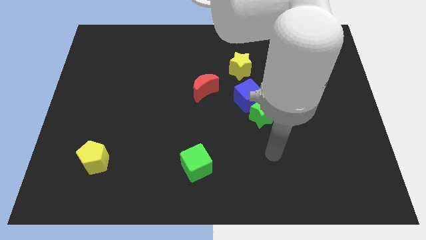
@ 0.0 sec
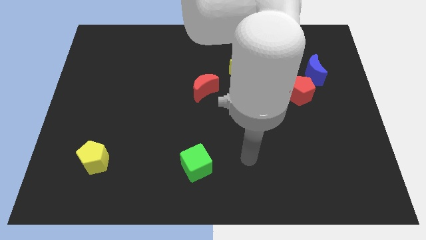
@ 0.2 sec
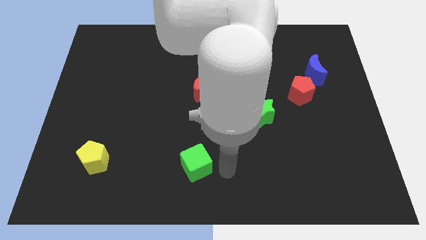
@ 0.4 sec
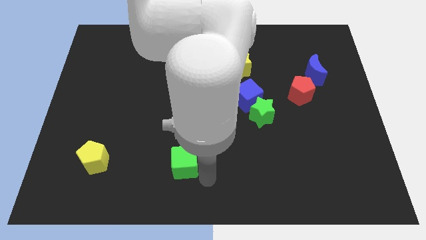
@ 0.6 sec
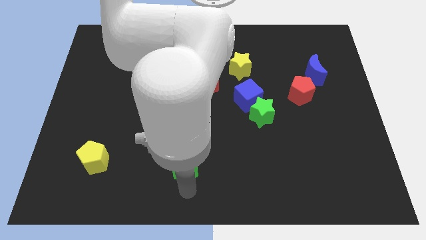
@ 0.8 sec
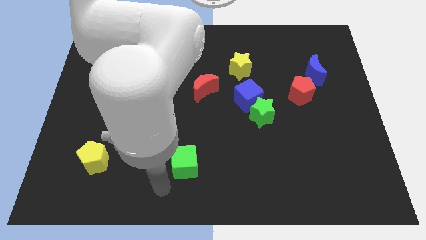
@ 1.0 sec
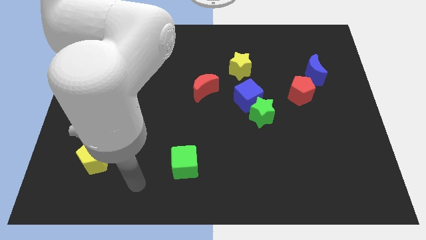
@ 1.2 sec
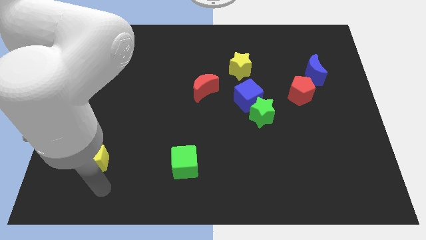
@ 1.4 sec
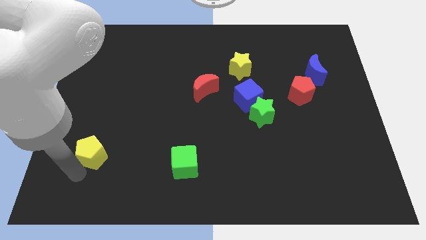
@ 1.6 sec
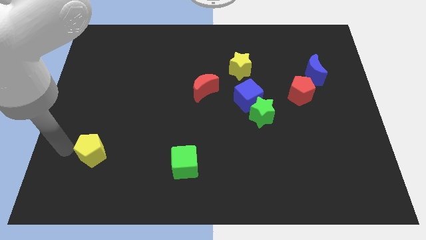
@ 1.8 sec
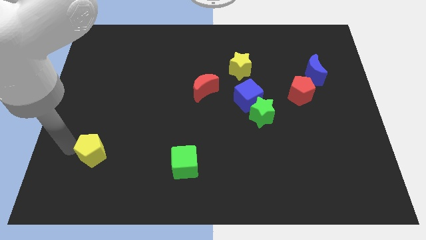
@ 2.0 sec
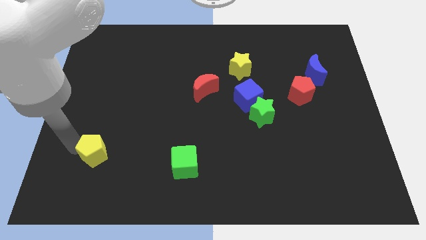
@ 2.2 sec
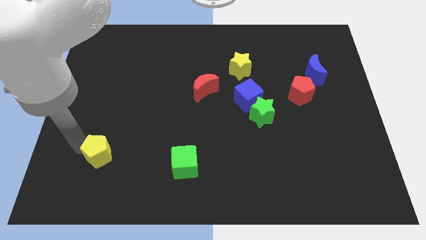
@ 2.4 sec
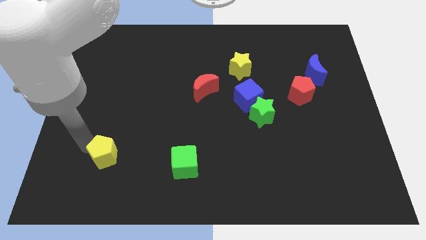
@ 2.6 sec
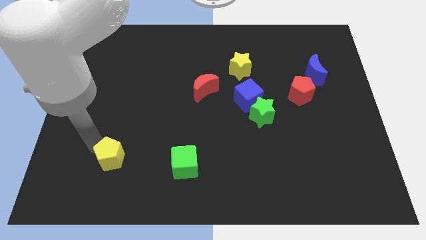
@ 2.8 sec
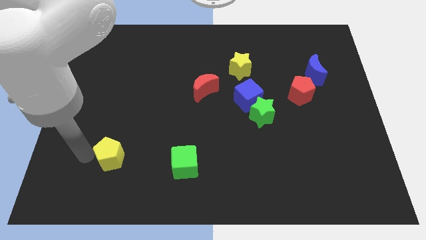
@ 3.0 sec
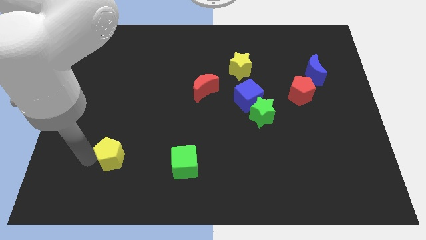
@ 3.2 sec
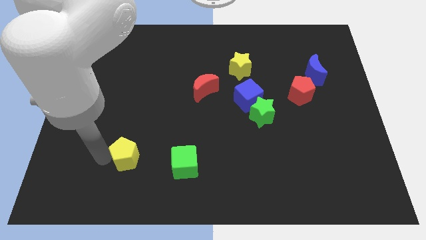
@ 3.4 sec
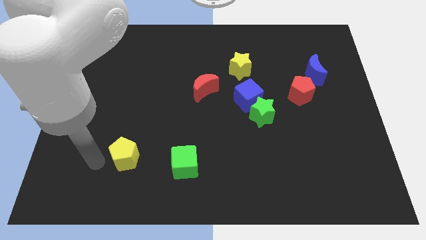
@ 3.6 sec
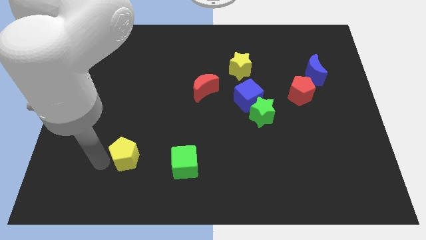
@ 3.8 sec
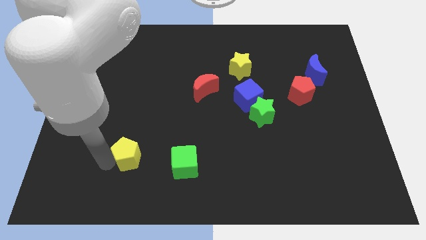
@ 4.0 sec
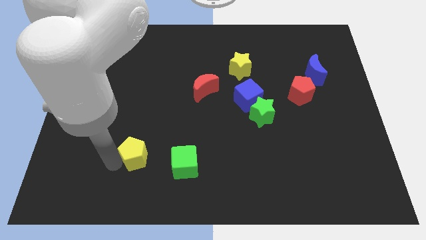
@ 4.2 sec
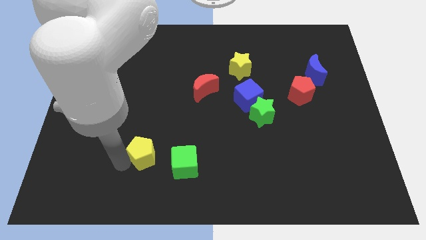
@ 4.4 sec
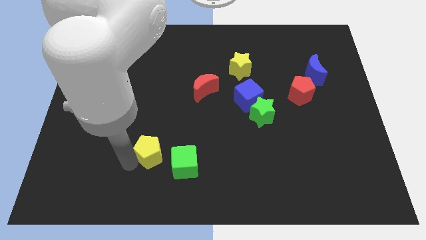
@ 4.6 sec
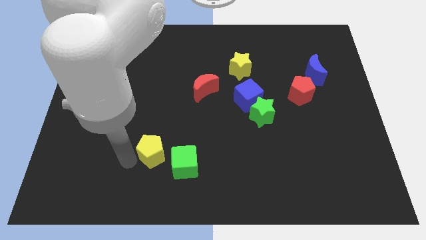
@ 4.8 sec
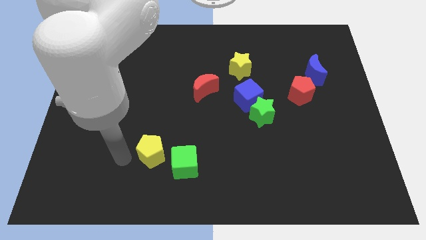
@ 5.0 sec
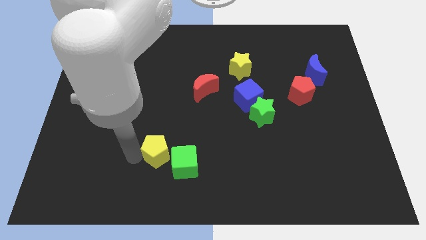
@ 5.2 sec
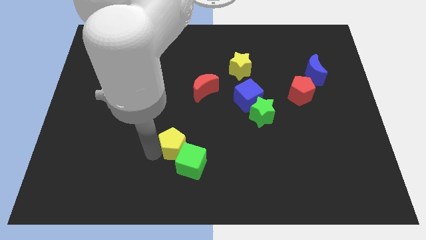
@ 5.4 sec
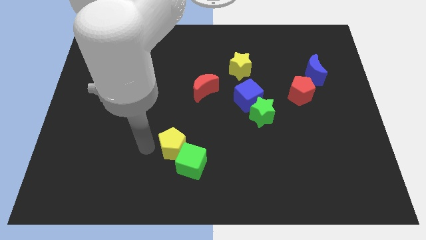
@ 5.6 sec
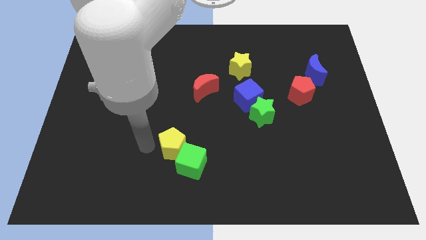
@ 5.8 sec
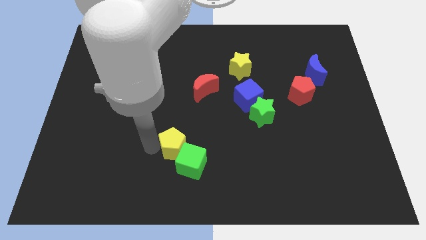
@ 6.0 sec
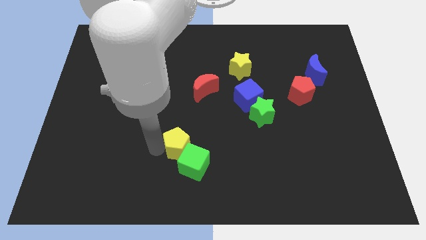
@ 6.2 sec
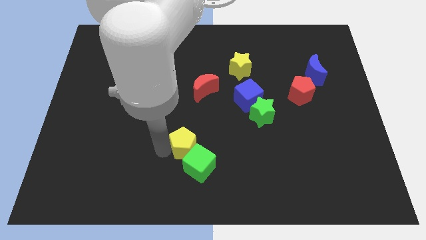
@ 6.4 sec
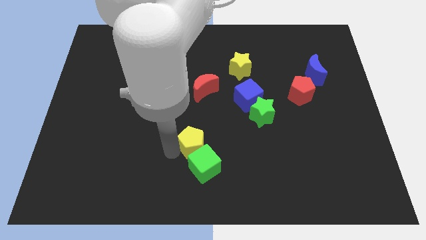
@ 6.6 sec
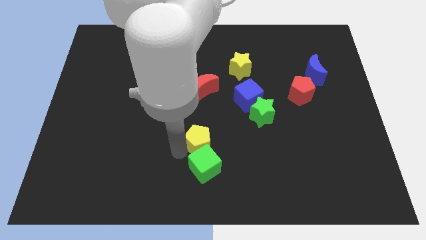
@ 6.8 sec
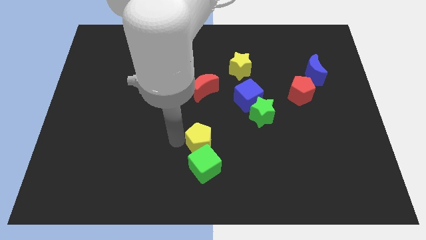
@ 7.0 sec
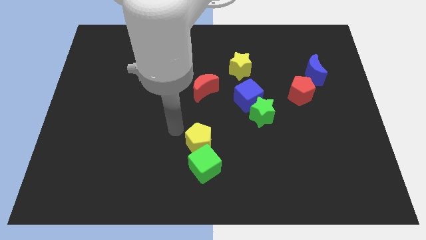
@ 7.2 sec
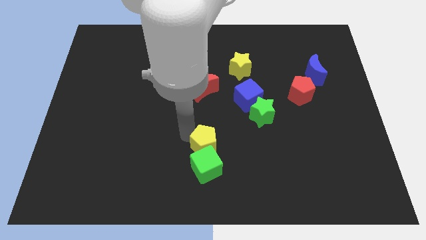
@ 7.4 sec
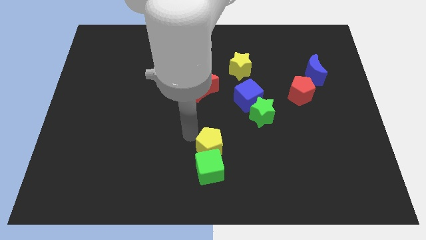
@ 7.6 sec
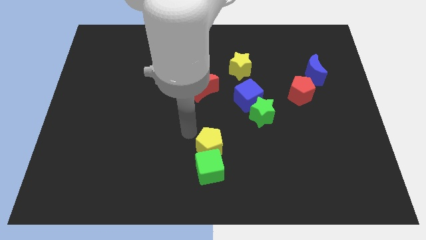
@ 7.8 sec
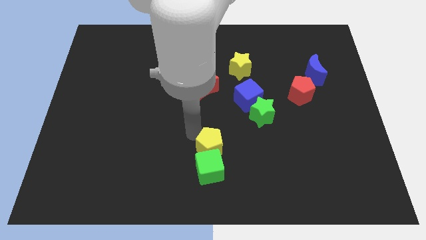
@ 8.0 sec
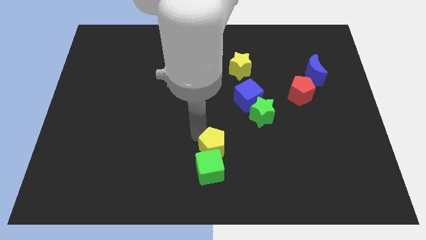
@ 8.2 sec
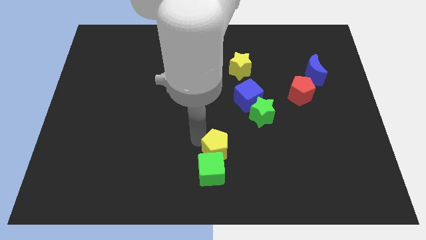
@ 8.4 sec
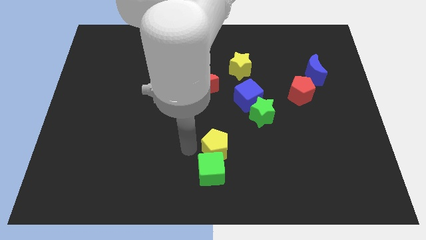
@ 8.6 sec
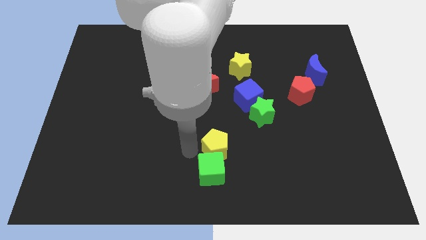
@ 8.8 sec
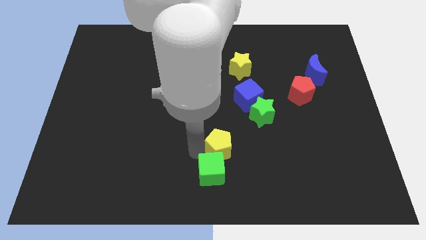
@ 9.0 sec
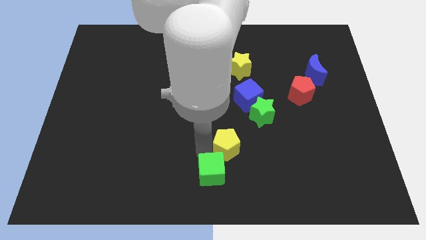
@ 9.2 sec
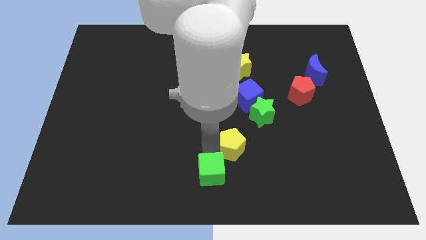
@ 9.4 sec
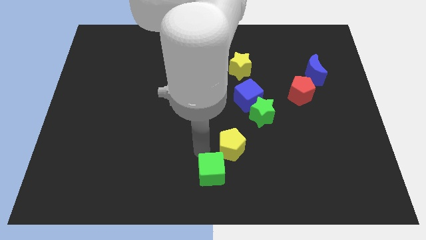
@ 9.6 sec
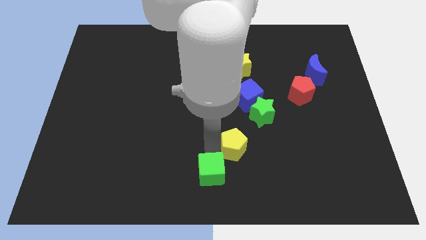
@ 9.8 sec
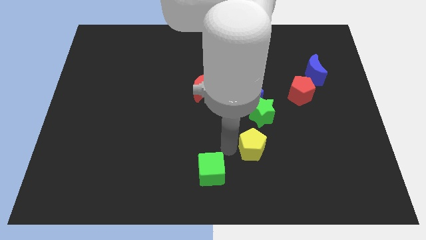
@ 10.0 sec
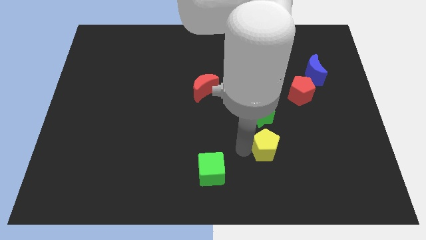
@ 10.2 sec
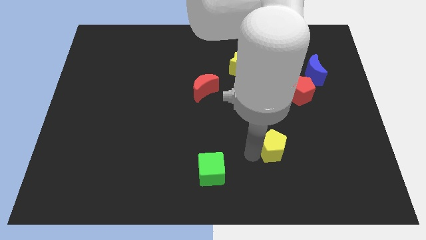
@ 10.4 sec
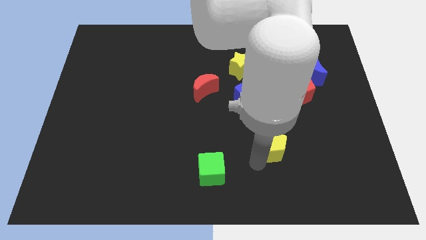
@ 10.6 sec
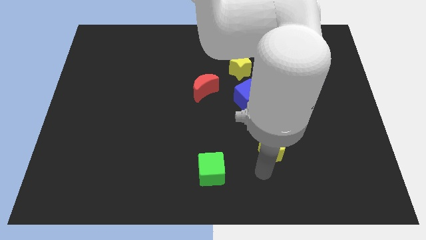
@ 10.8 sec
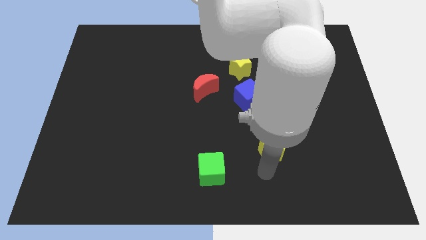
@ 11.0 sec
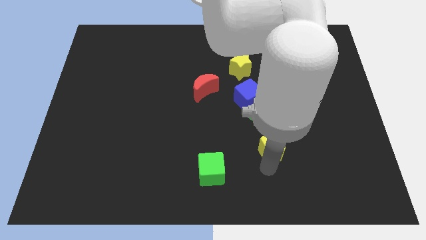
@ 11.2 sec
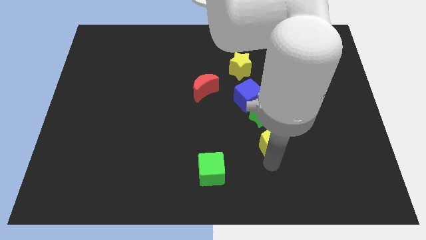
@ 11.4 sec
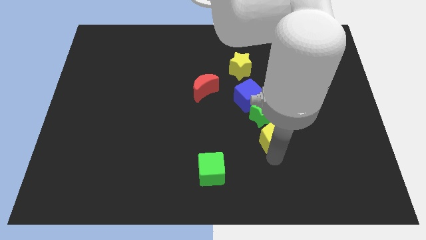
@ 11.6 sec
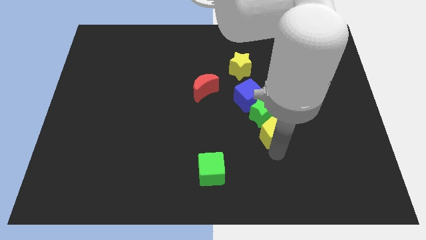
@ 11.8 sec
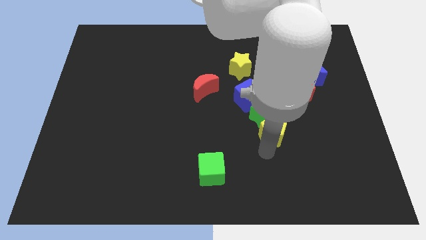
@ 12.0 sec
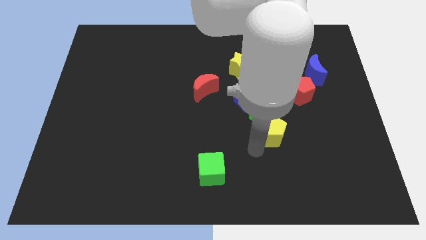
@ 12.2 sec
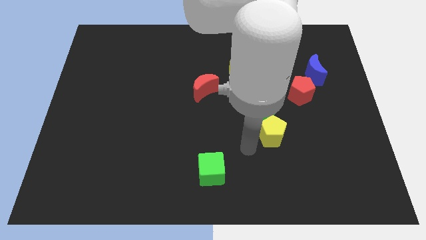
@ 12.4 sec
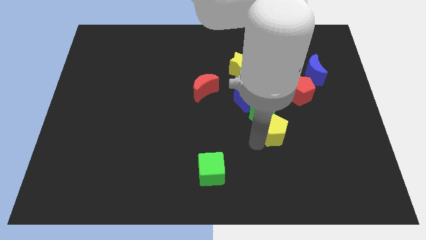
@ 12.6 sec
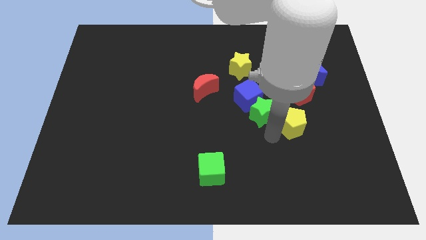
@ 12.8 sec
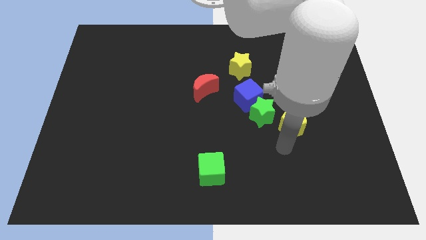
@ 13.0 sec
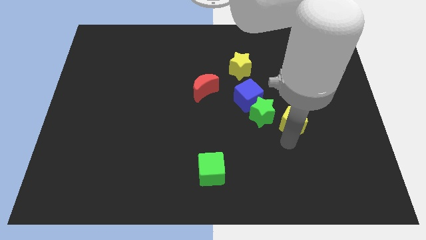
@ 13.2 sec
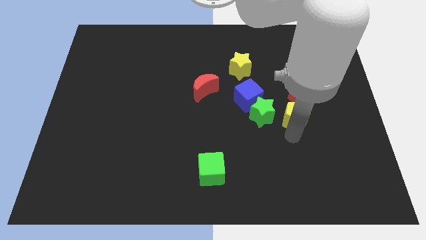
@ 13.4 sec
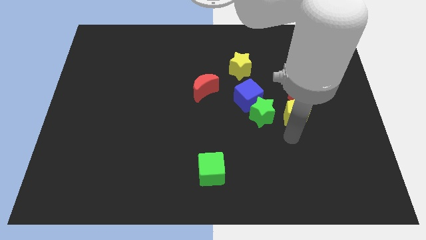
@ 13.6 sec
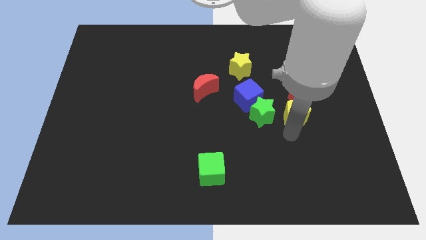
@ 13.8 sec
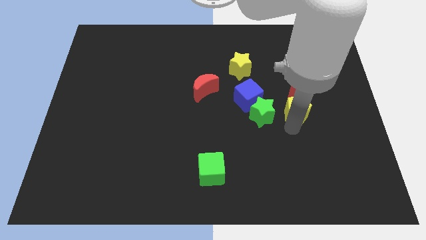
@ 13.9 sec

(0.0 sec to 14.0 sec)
slide the yellow pentagon next to the red pentagon

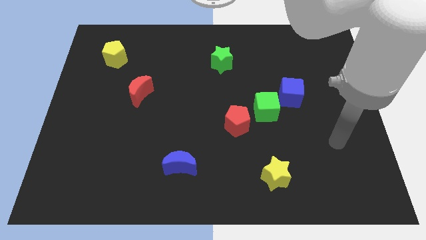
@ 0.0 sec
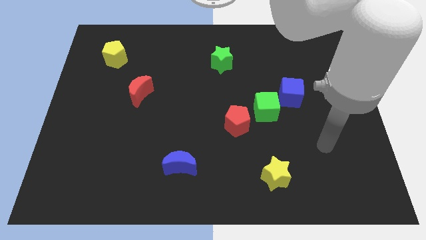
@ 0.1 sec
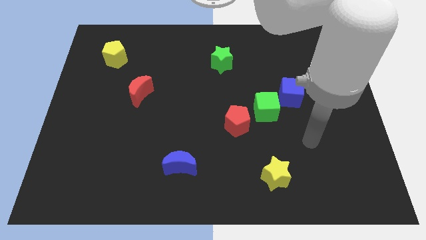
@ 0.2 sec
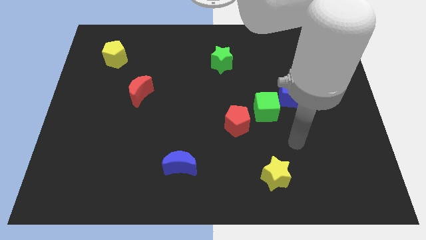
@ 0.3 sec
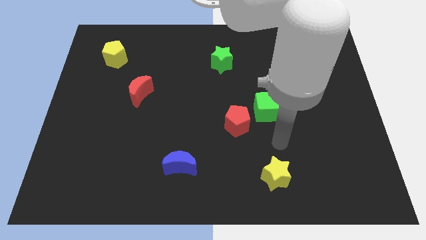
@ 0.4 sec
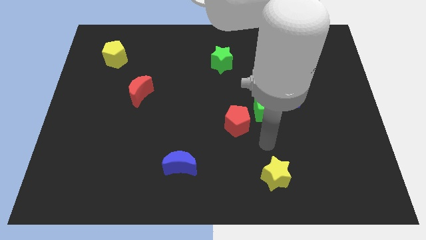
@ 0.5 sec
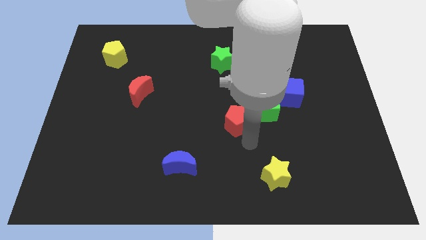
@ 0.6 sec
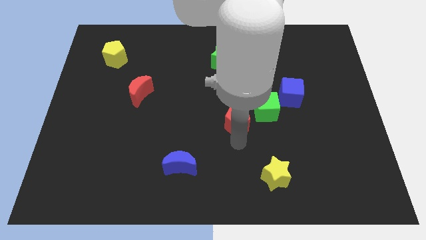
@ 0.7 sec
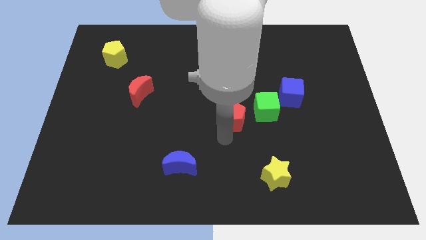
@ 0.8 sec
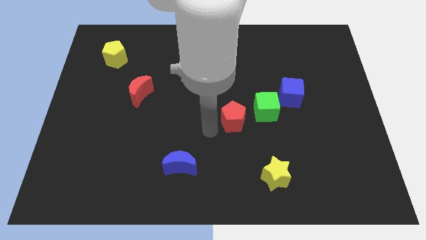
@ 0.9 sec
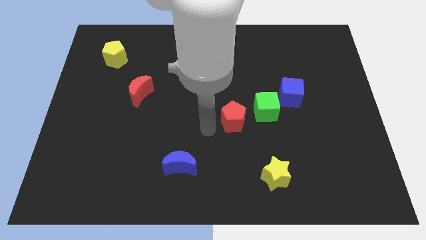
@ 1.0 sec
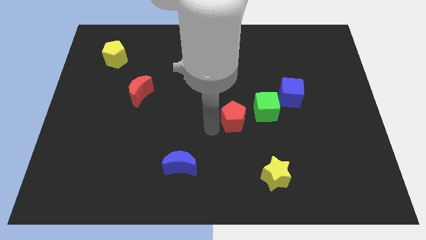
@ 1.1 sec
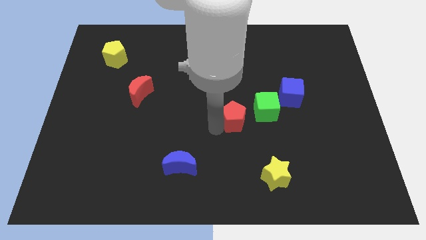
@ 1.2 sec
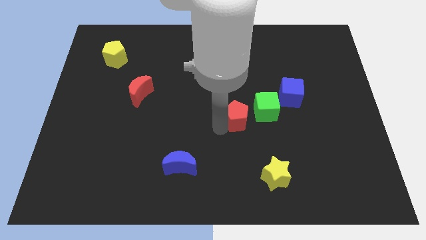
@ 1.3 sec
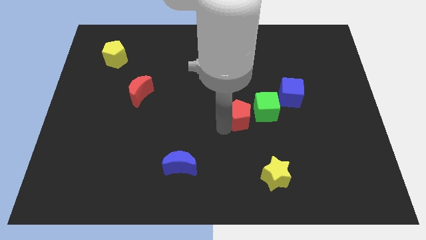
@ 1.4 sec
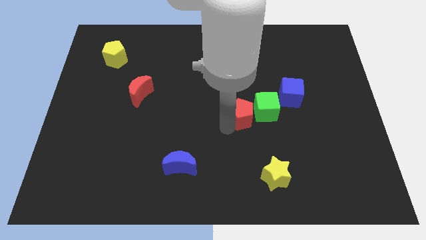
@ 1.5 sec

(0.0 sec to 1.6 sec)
put the red pentagon to the green cube
